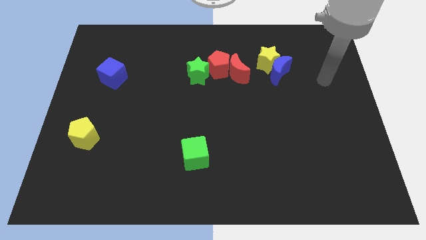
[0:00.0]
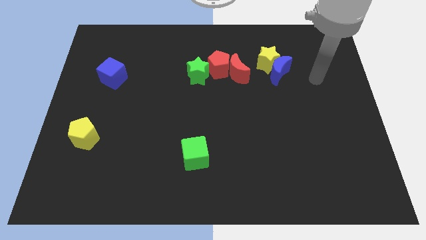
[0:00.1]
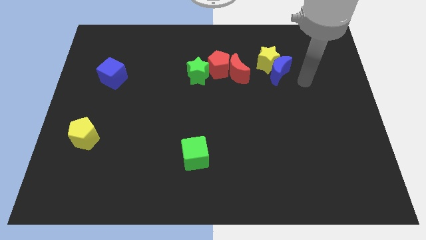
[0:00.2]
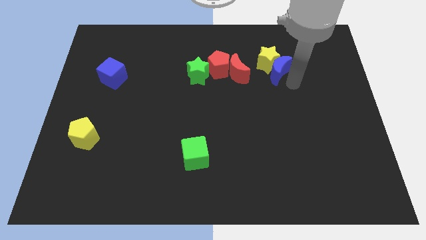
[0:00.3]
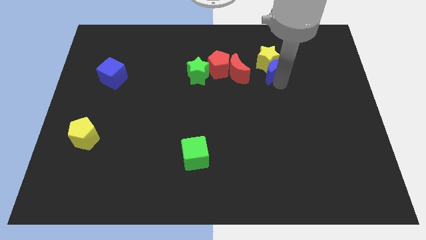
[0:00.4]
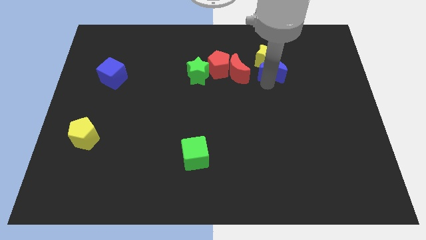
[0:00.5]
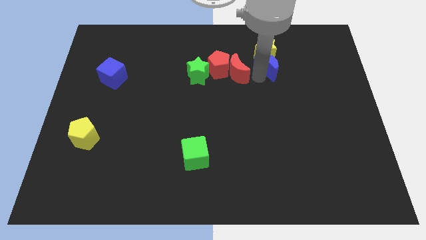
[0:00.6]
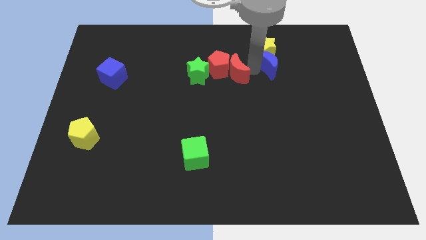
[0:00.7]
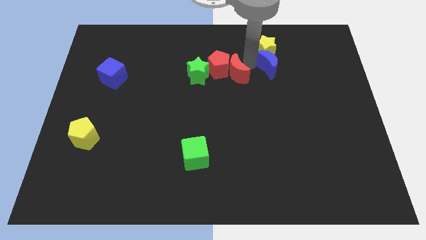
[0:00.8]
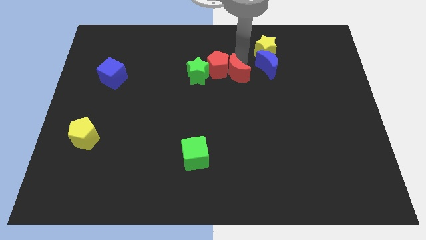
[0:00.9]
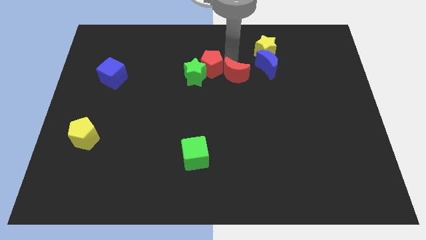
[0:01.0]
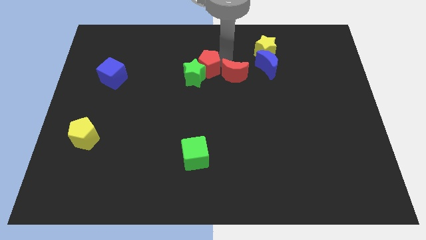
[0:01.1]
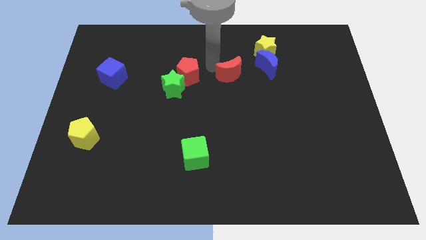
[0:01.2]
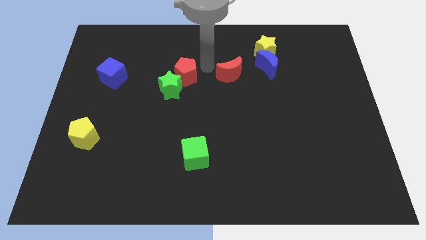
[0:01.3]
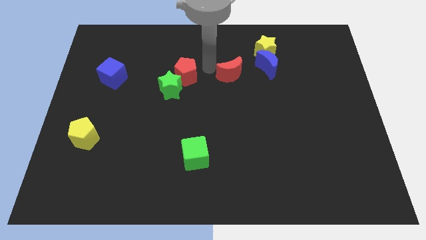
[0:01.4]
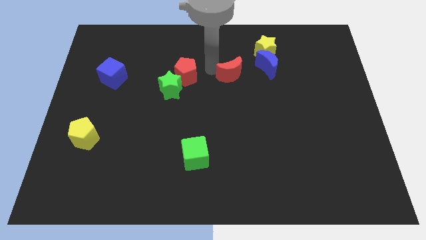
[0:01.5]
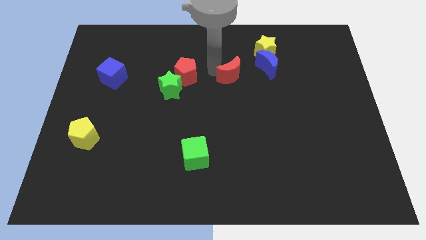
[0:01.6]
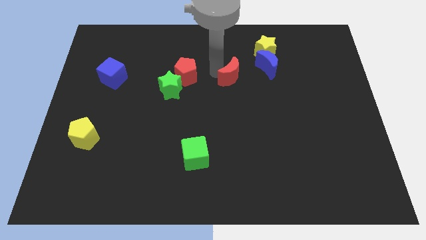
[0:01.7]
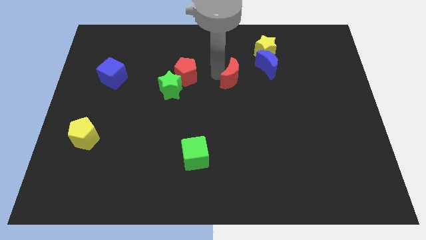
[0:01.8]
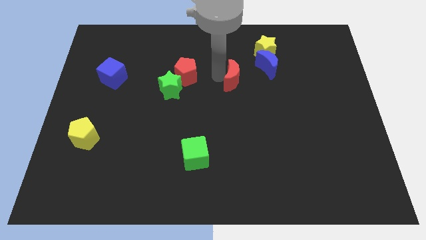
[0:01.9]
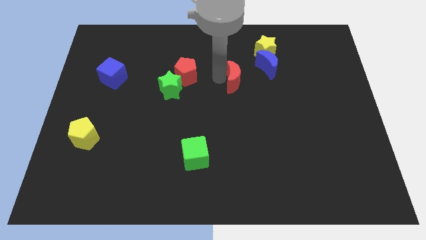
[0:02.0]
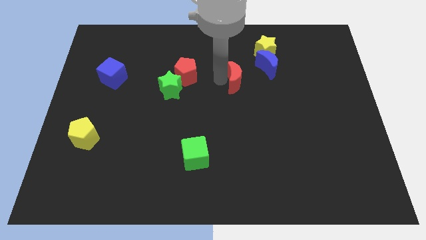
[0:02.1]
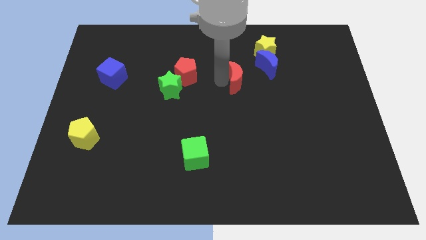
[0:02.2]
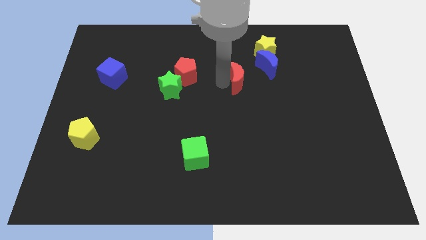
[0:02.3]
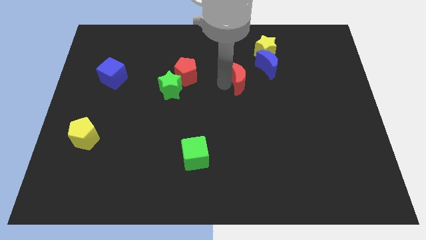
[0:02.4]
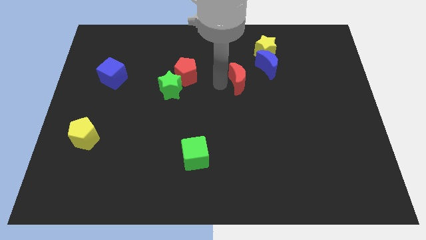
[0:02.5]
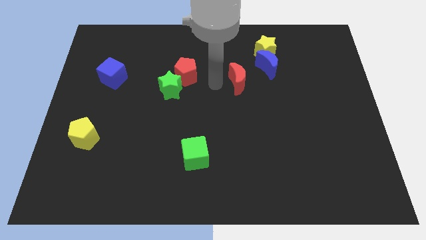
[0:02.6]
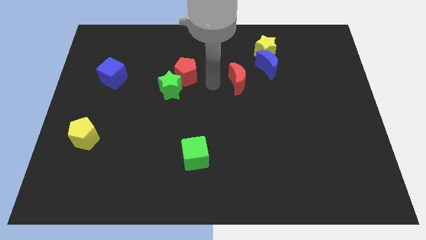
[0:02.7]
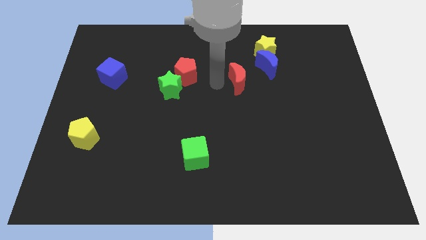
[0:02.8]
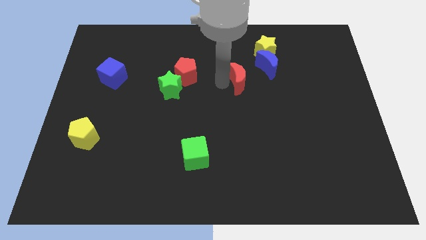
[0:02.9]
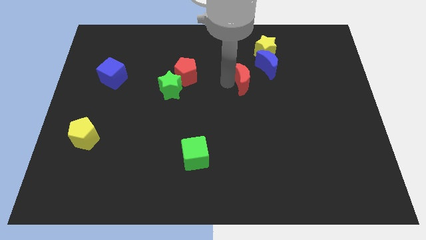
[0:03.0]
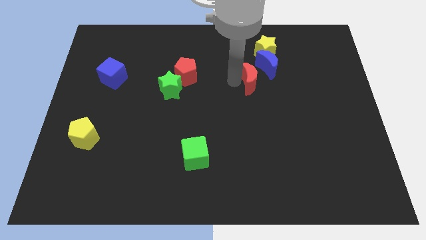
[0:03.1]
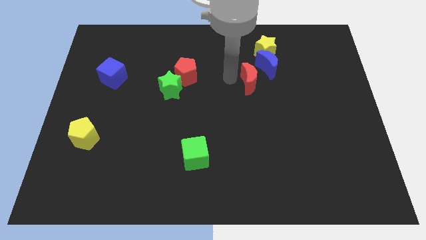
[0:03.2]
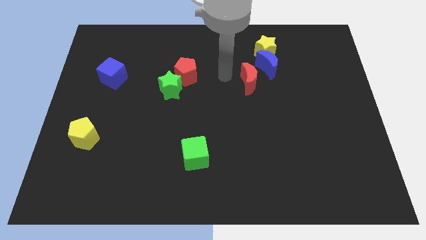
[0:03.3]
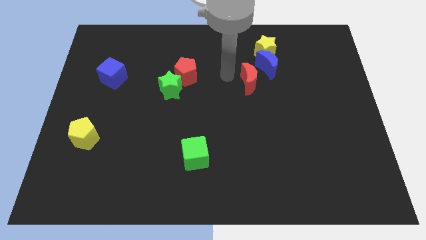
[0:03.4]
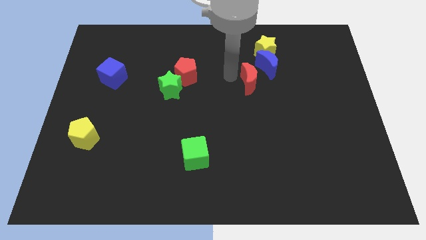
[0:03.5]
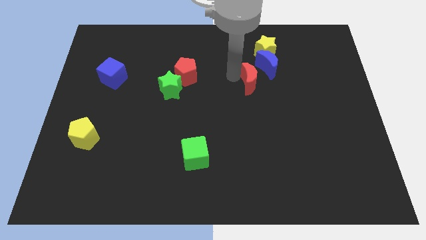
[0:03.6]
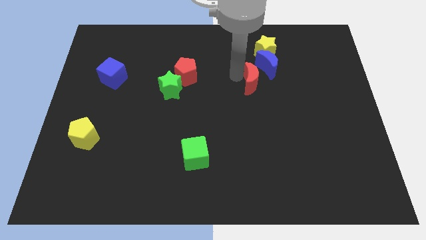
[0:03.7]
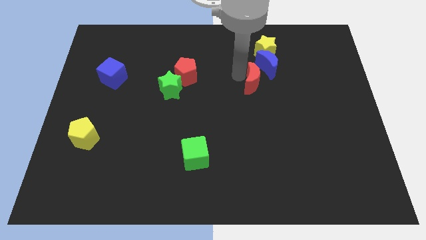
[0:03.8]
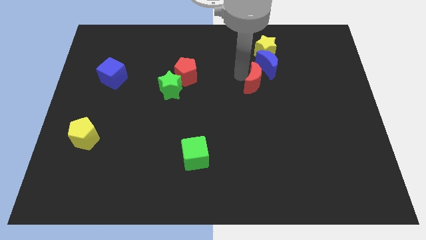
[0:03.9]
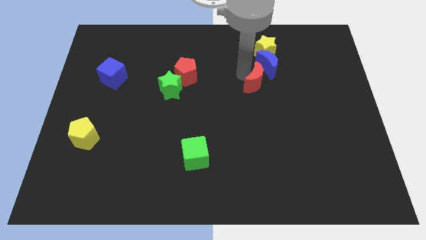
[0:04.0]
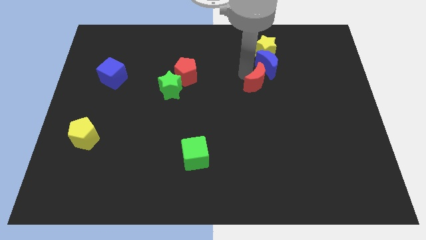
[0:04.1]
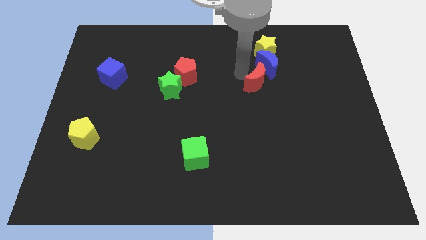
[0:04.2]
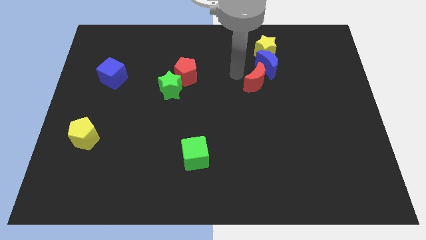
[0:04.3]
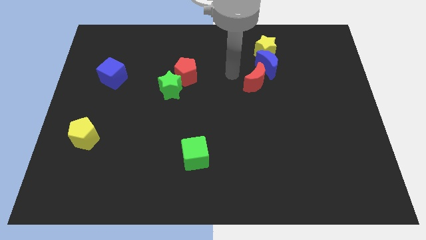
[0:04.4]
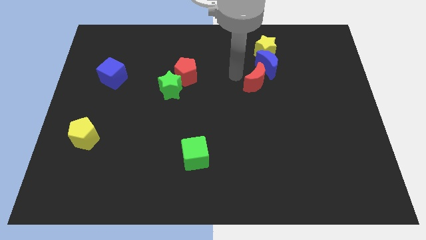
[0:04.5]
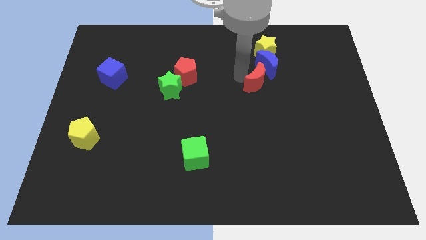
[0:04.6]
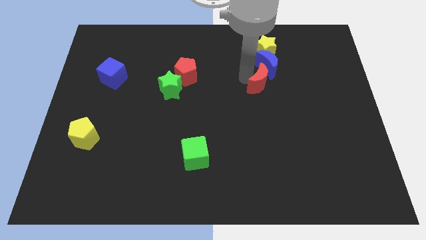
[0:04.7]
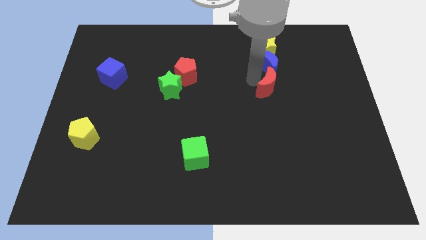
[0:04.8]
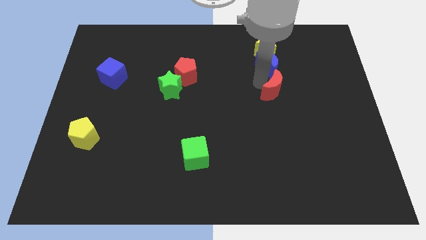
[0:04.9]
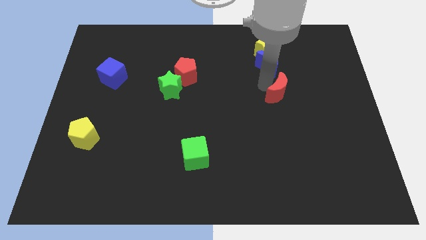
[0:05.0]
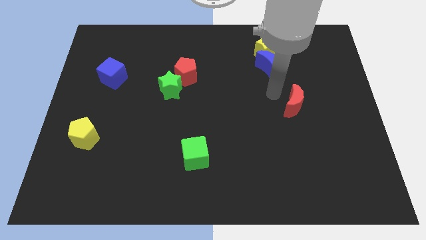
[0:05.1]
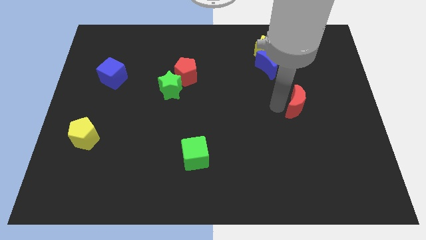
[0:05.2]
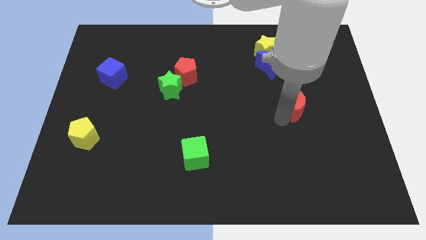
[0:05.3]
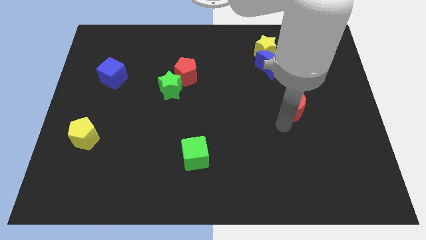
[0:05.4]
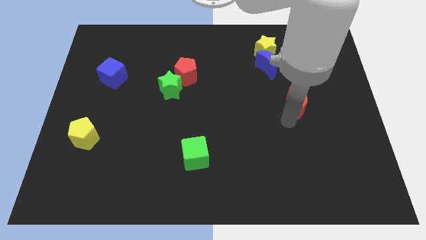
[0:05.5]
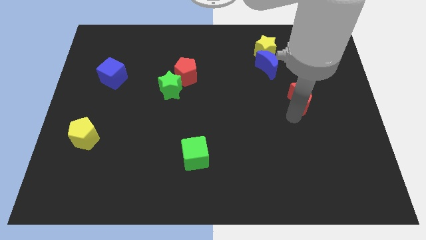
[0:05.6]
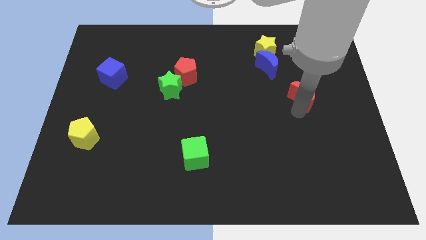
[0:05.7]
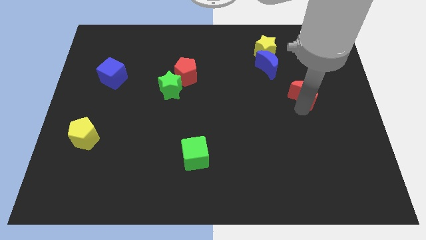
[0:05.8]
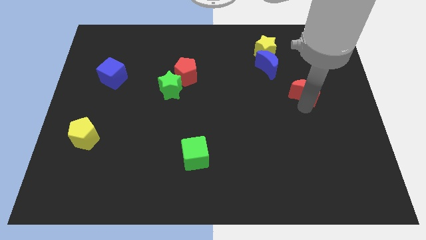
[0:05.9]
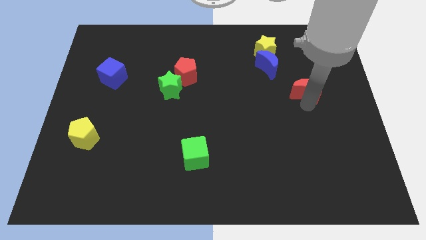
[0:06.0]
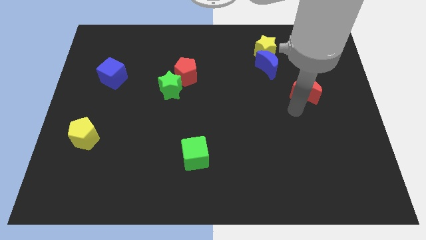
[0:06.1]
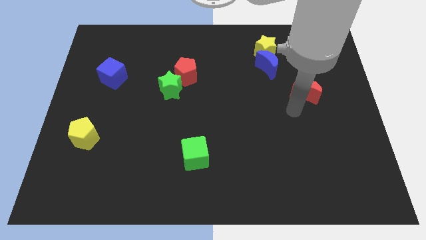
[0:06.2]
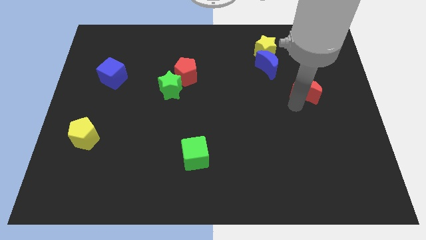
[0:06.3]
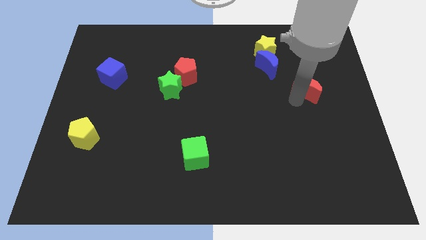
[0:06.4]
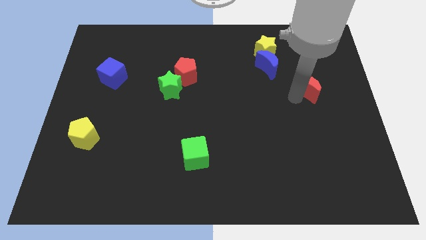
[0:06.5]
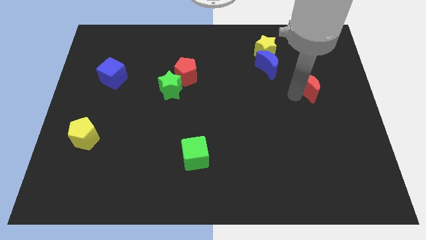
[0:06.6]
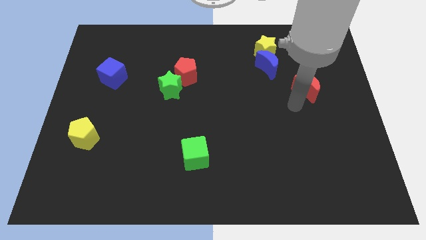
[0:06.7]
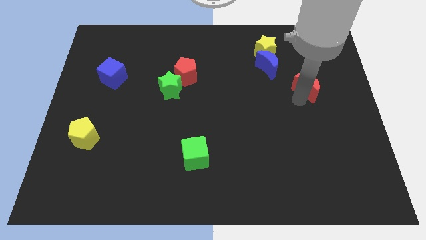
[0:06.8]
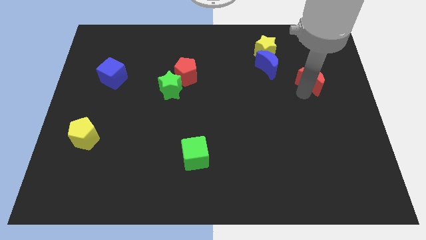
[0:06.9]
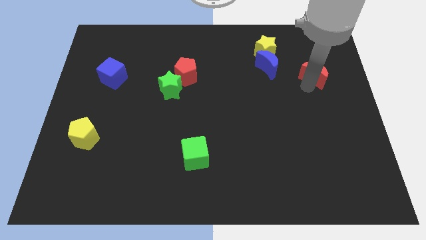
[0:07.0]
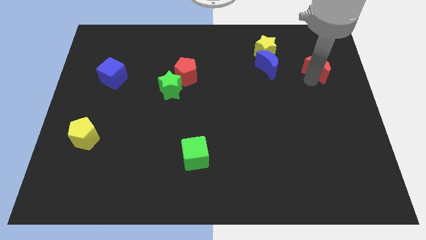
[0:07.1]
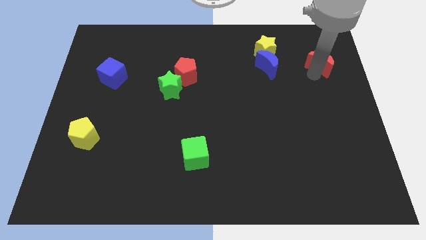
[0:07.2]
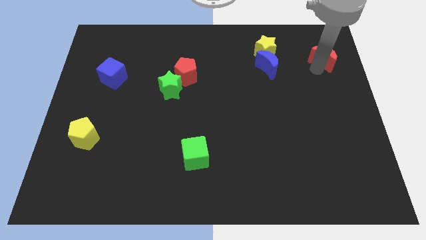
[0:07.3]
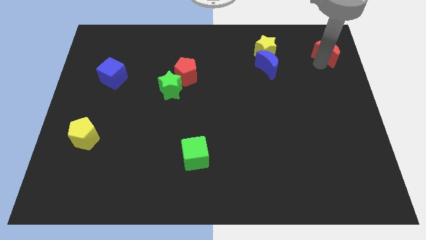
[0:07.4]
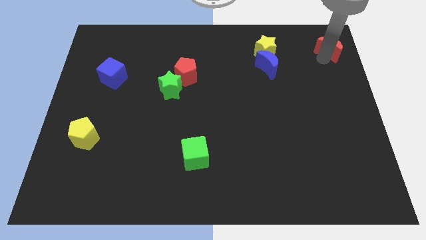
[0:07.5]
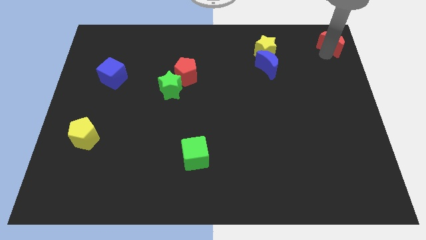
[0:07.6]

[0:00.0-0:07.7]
push the red moon to the top right of the board
